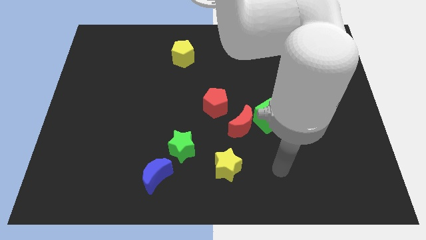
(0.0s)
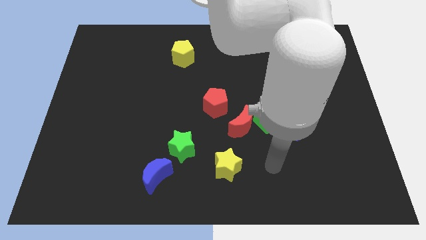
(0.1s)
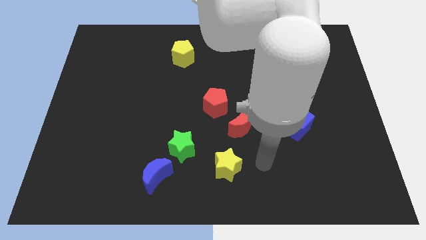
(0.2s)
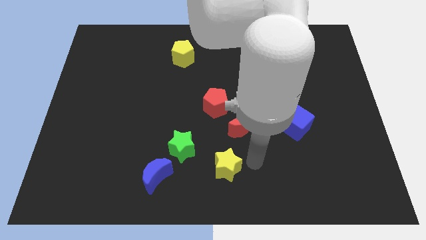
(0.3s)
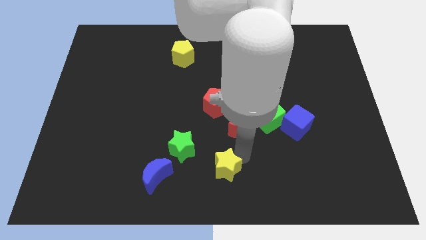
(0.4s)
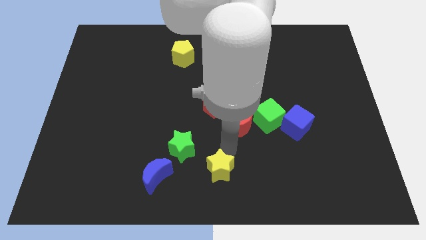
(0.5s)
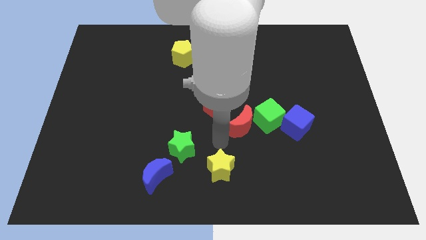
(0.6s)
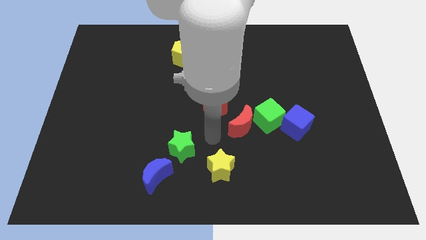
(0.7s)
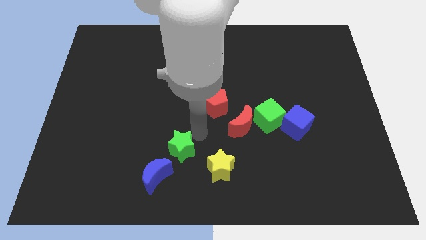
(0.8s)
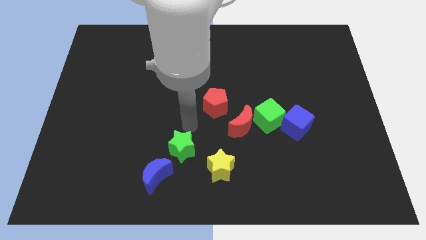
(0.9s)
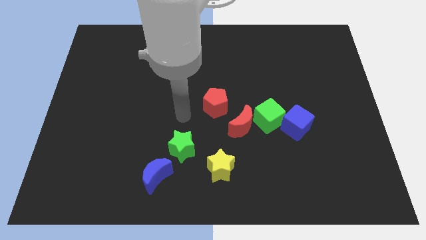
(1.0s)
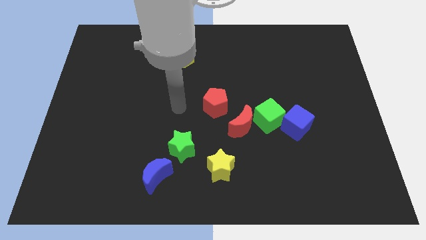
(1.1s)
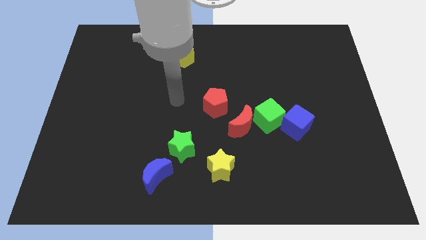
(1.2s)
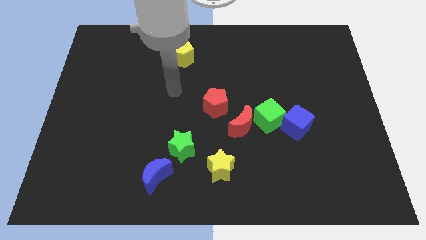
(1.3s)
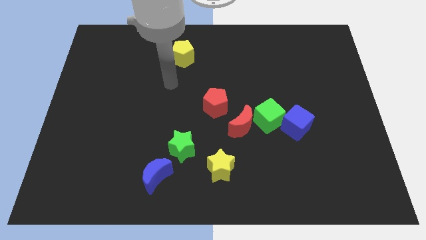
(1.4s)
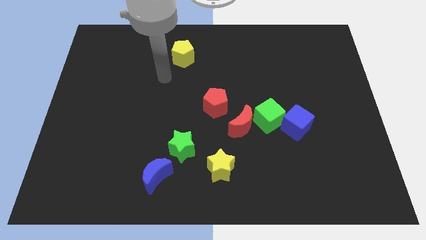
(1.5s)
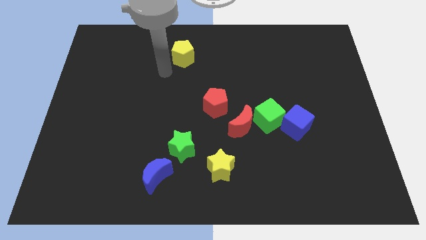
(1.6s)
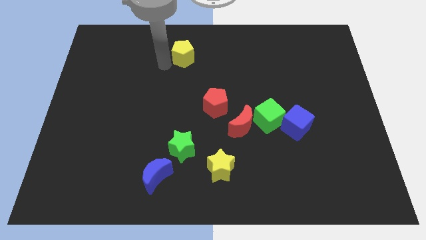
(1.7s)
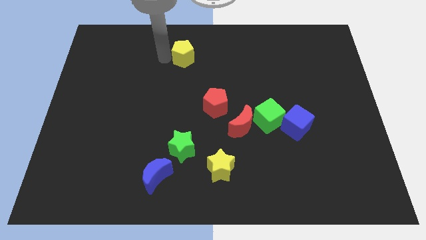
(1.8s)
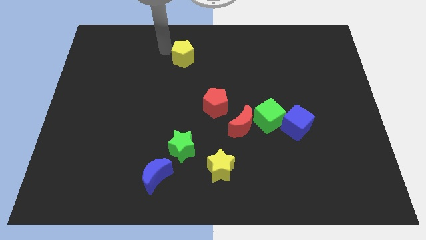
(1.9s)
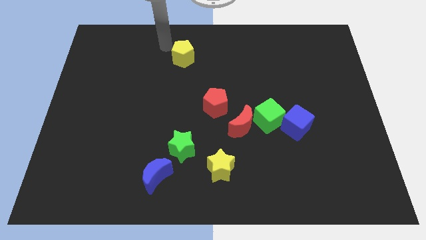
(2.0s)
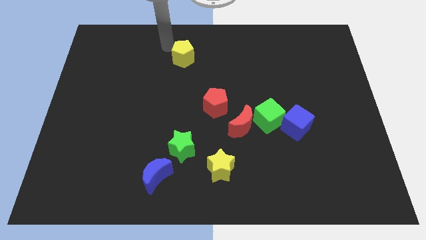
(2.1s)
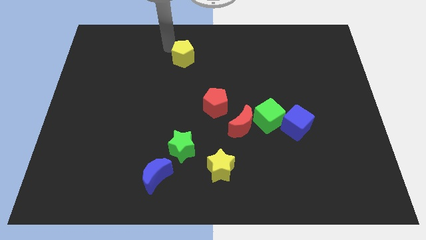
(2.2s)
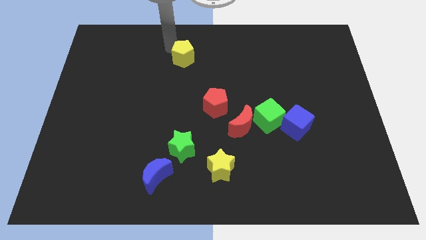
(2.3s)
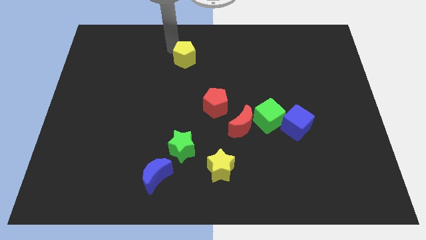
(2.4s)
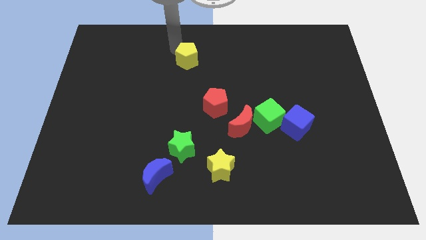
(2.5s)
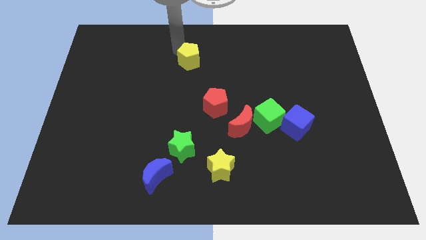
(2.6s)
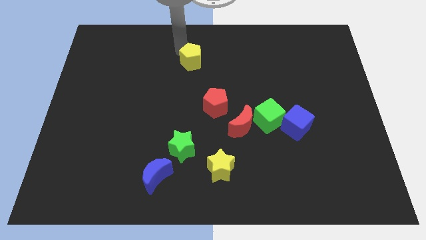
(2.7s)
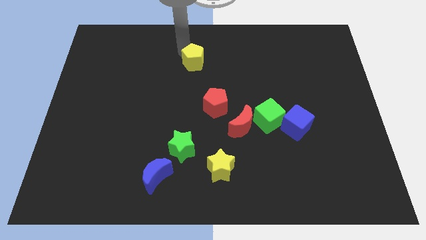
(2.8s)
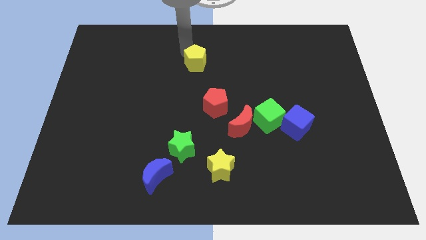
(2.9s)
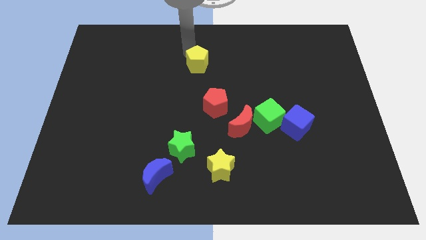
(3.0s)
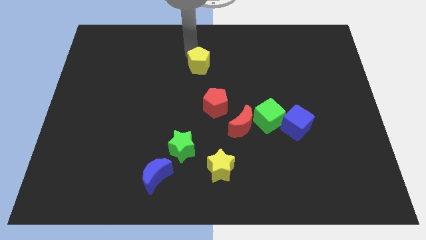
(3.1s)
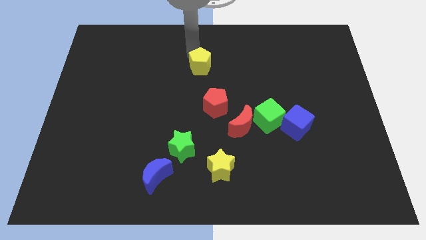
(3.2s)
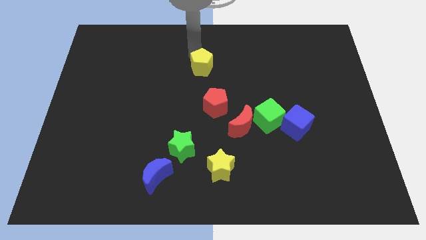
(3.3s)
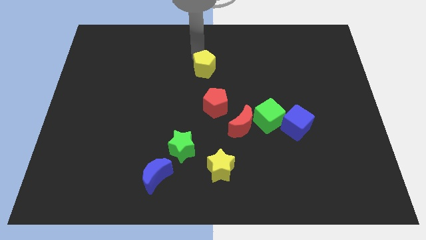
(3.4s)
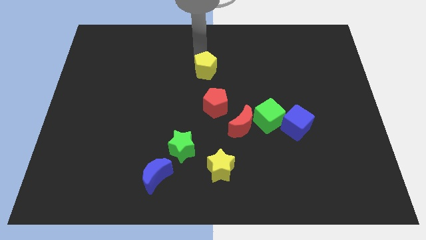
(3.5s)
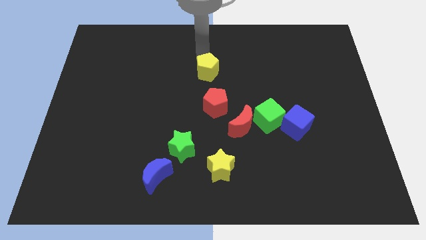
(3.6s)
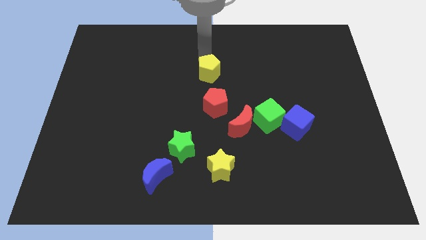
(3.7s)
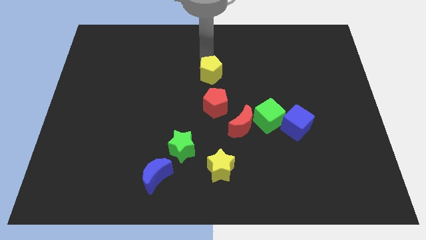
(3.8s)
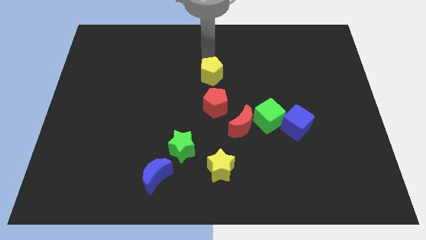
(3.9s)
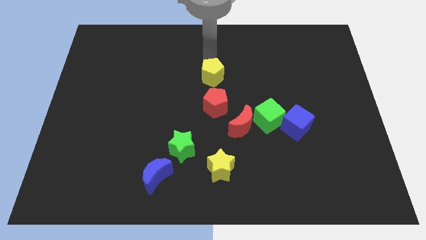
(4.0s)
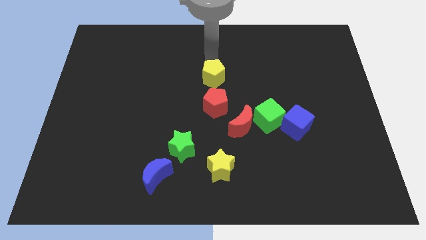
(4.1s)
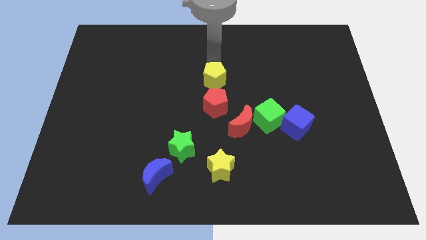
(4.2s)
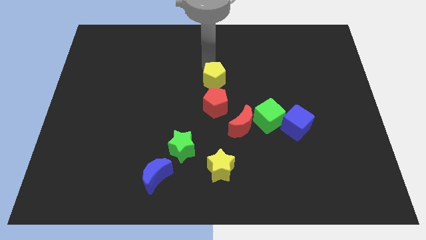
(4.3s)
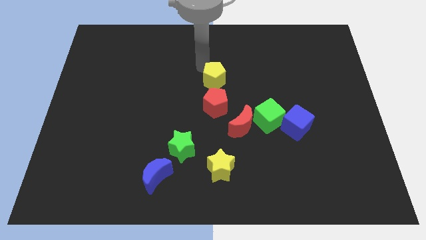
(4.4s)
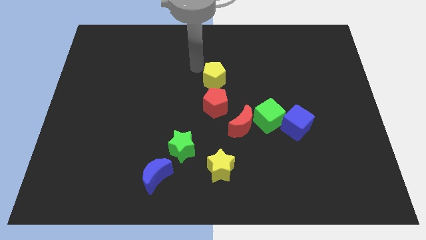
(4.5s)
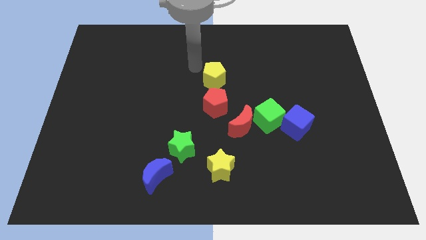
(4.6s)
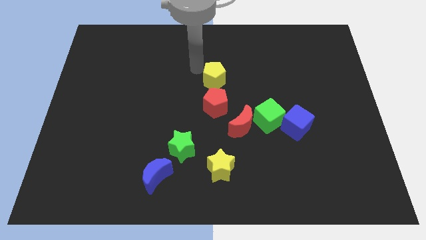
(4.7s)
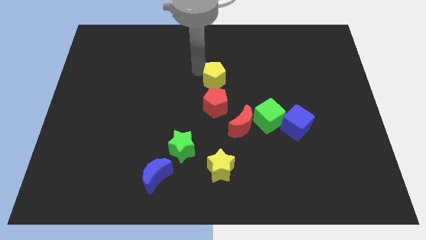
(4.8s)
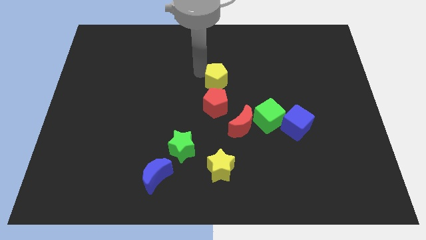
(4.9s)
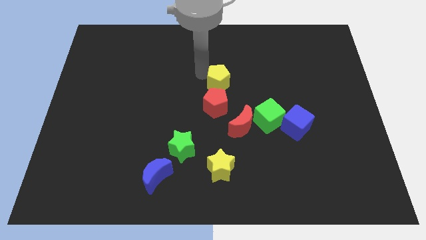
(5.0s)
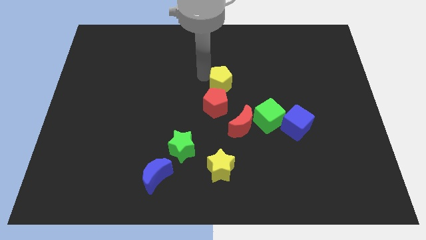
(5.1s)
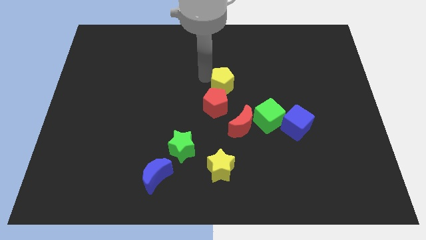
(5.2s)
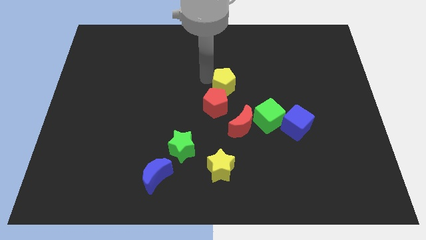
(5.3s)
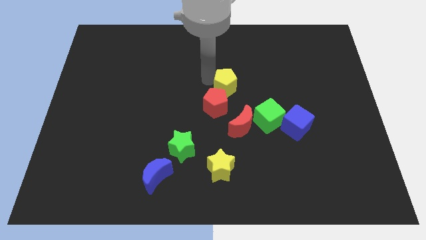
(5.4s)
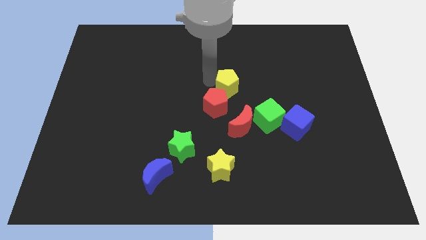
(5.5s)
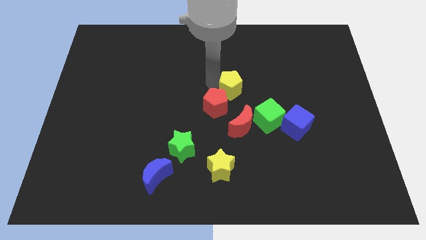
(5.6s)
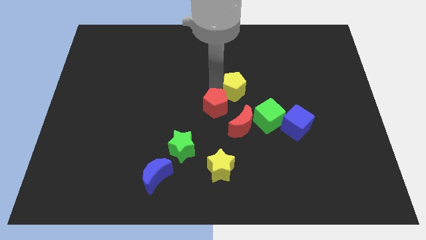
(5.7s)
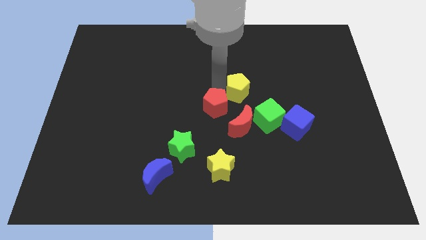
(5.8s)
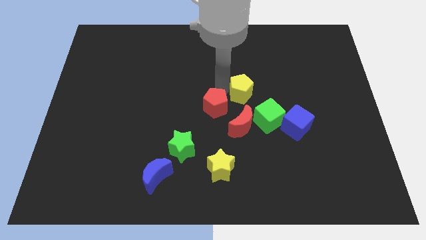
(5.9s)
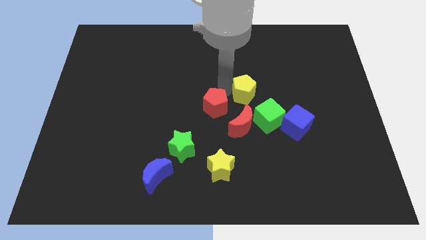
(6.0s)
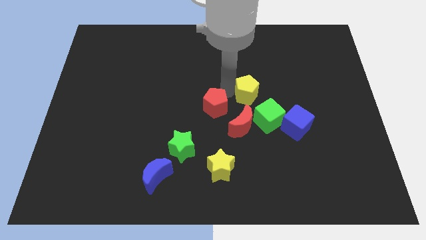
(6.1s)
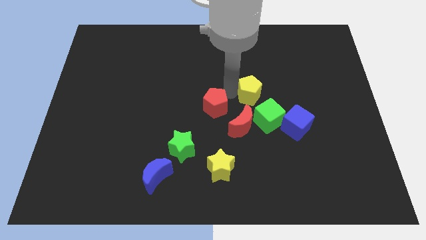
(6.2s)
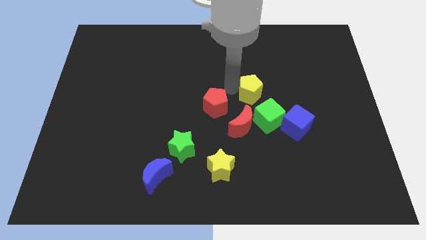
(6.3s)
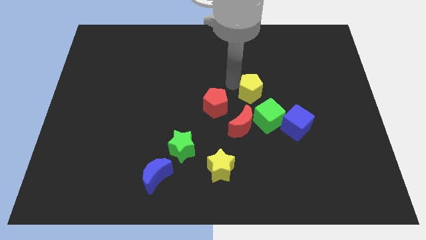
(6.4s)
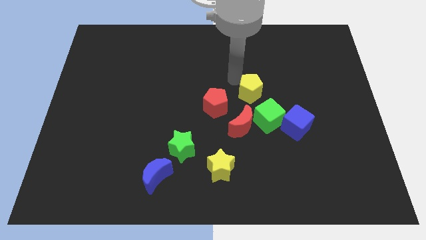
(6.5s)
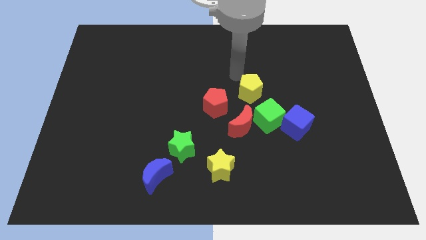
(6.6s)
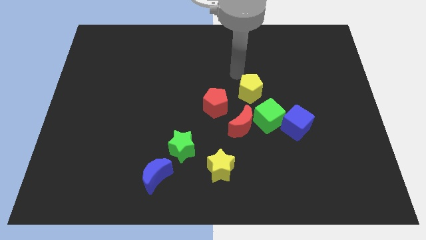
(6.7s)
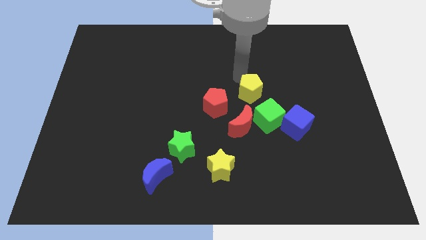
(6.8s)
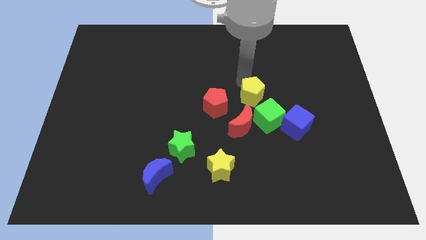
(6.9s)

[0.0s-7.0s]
push the yellow pentagon diagonally up and to the right of the red moon
